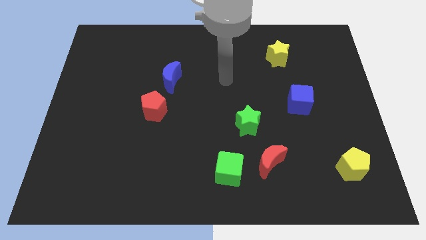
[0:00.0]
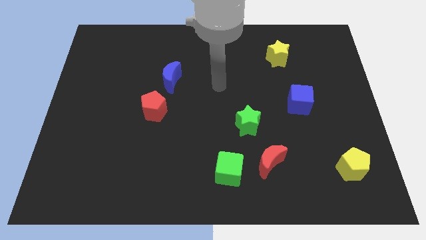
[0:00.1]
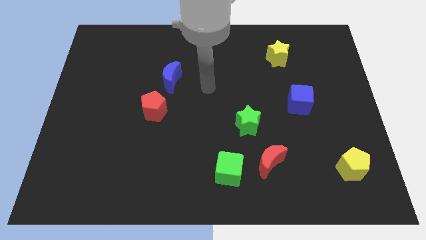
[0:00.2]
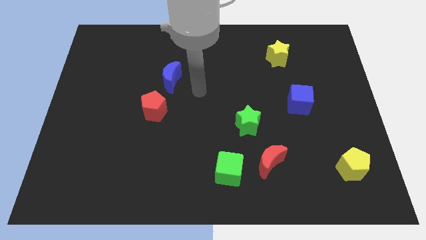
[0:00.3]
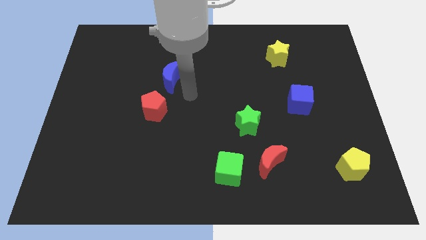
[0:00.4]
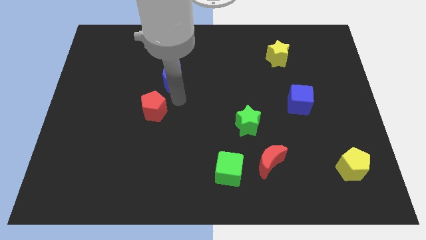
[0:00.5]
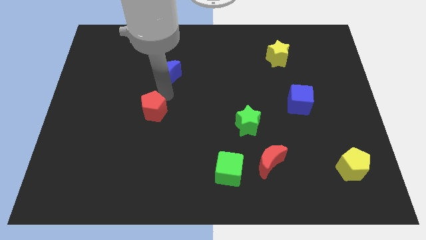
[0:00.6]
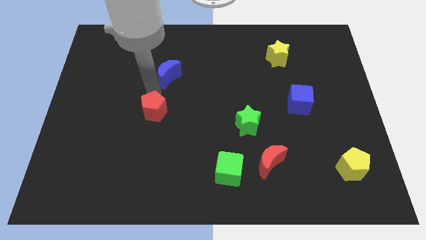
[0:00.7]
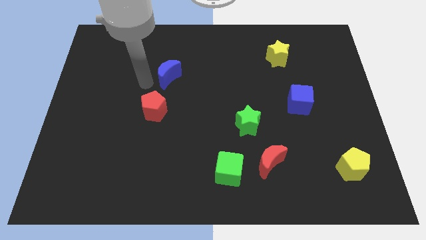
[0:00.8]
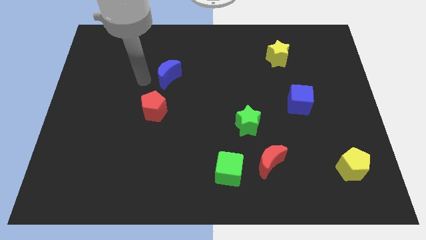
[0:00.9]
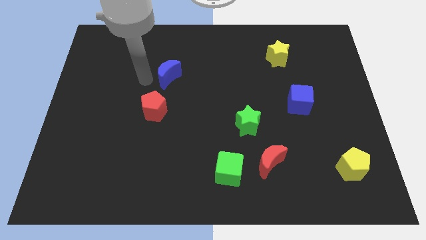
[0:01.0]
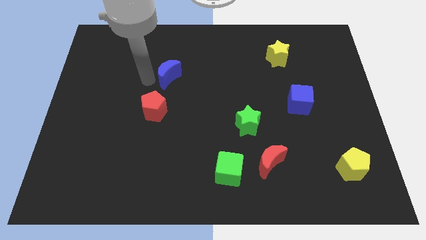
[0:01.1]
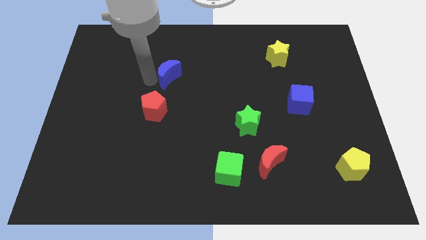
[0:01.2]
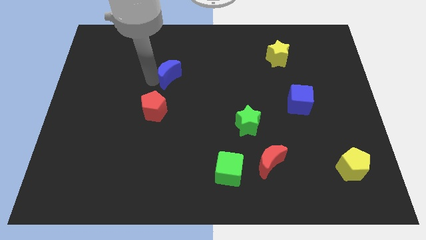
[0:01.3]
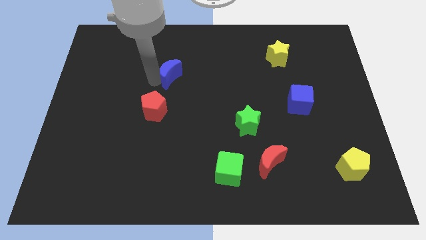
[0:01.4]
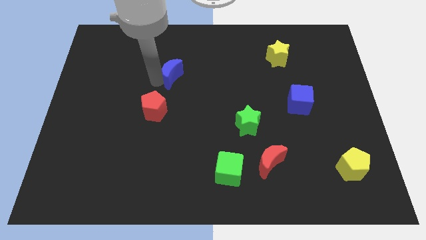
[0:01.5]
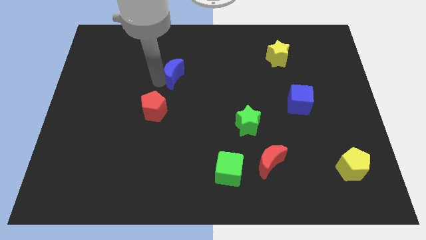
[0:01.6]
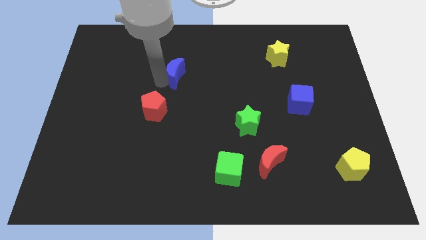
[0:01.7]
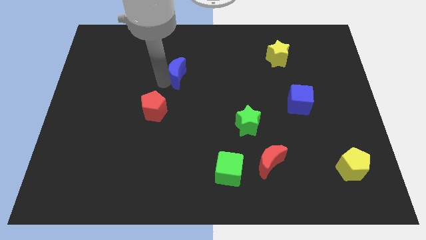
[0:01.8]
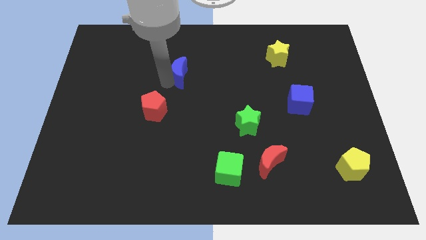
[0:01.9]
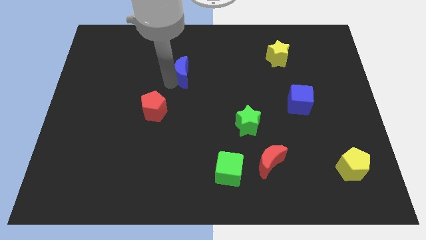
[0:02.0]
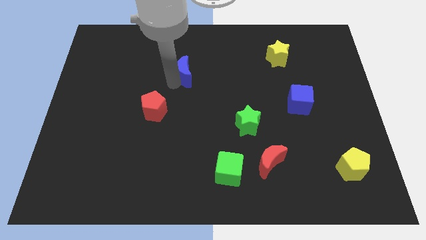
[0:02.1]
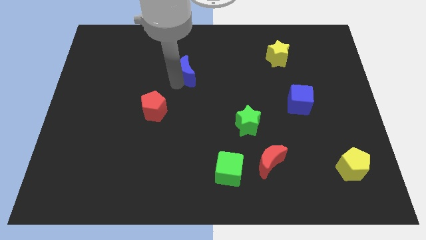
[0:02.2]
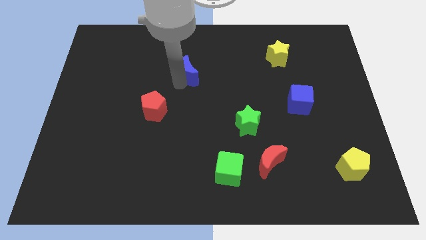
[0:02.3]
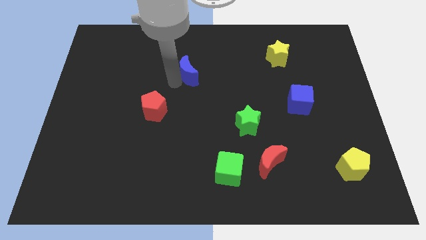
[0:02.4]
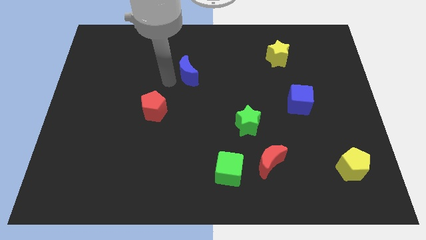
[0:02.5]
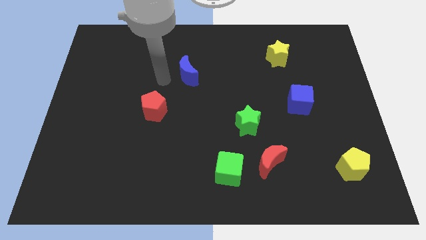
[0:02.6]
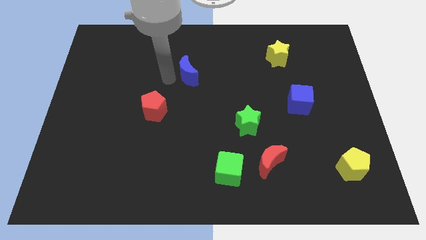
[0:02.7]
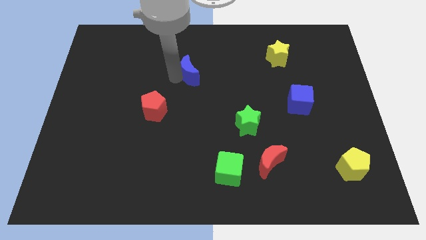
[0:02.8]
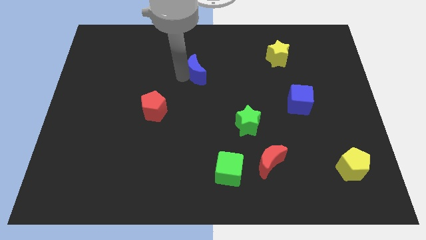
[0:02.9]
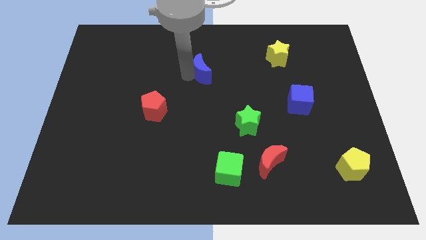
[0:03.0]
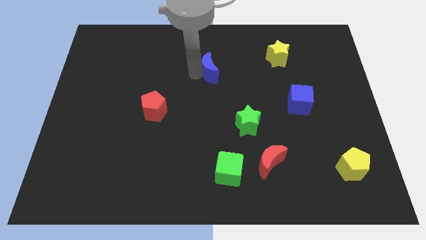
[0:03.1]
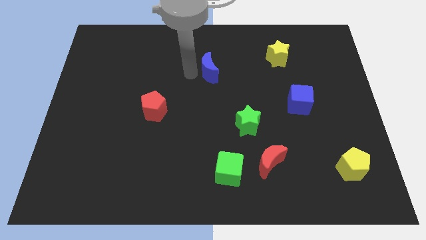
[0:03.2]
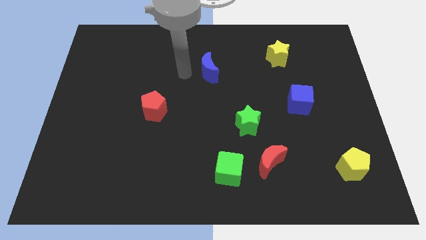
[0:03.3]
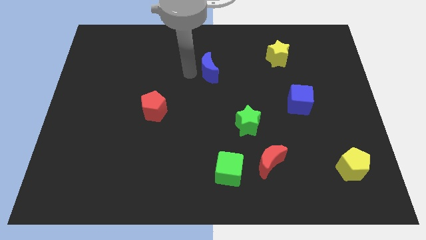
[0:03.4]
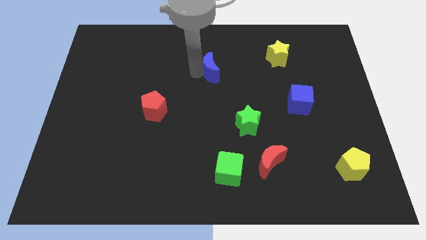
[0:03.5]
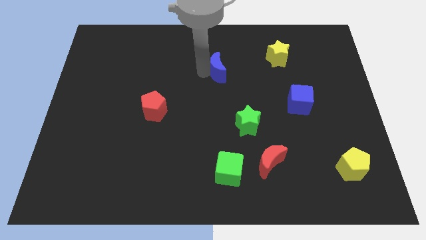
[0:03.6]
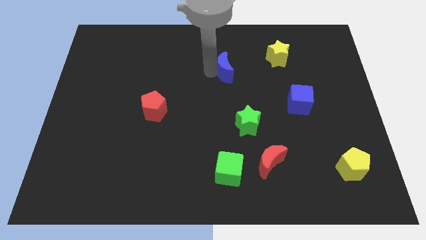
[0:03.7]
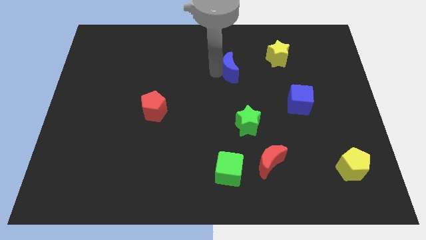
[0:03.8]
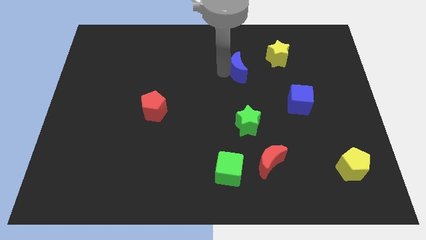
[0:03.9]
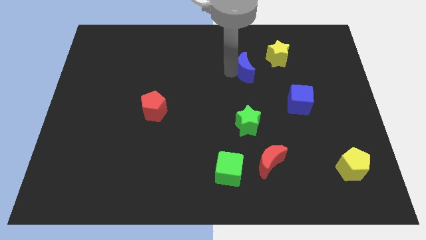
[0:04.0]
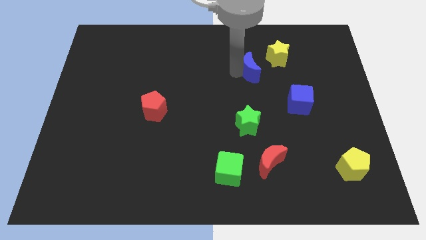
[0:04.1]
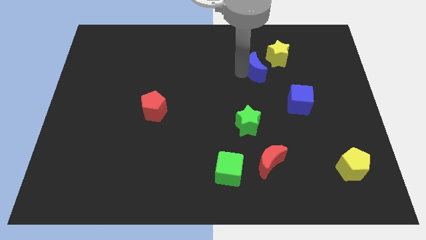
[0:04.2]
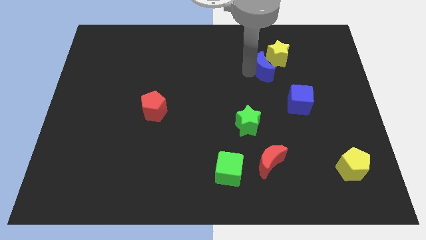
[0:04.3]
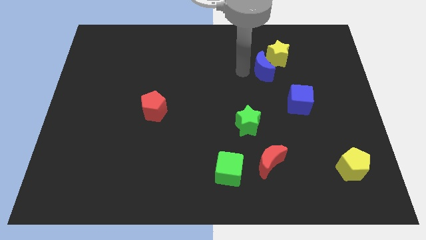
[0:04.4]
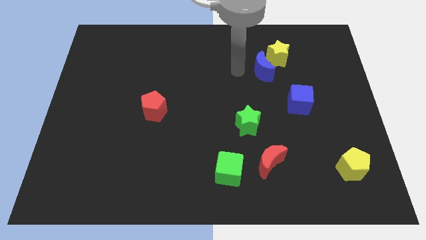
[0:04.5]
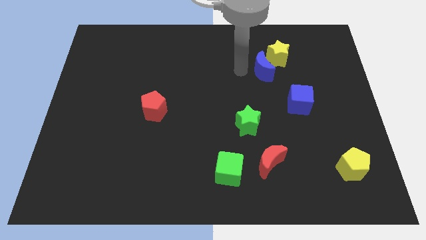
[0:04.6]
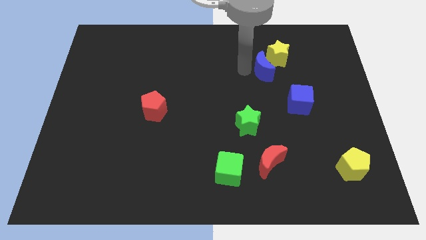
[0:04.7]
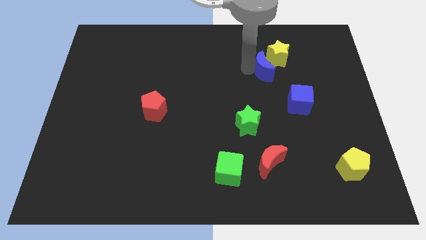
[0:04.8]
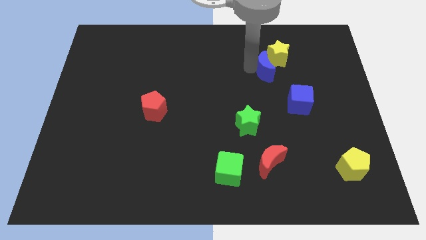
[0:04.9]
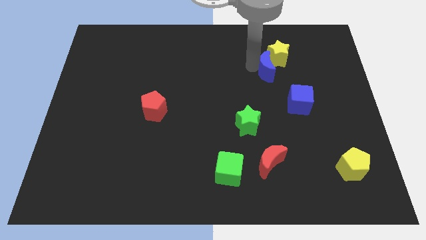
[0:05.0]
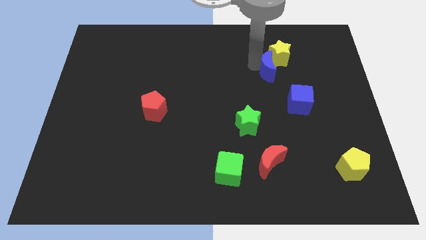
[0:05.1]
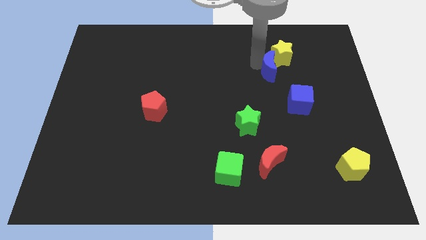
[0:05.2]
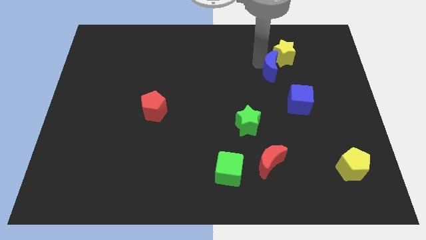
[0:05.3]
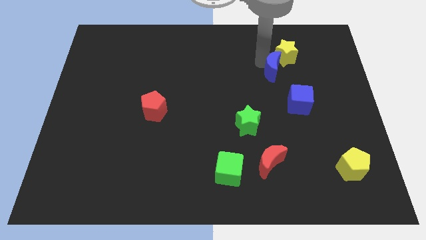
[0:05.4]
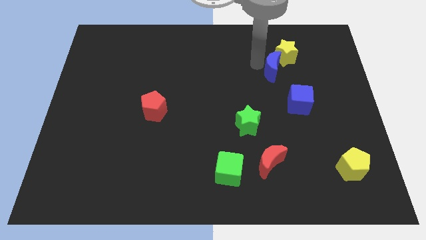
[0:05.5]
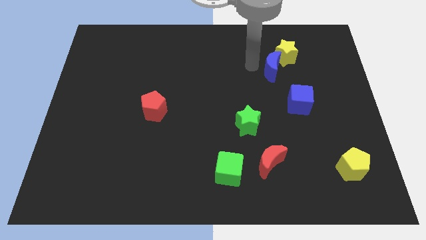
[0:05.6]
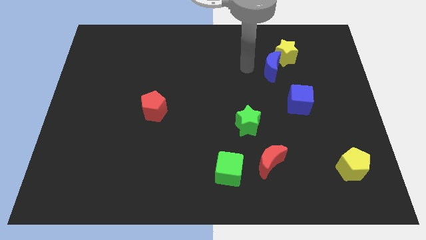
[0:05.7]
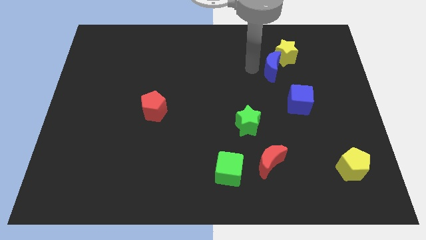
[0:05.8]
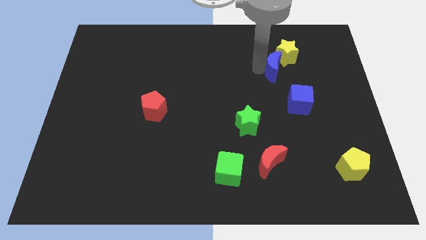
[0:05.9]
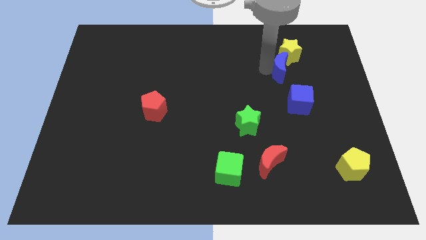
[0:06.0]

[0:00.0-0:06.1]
move the blue moon to the top of the blue cube

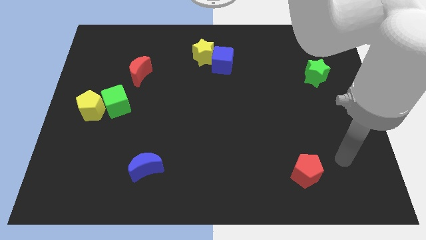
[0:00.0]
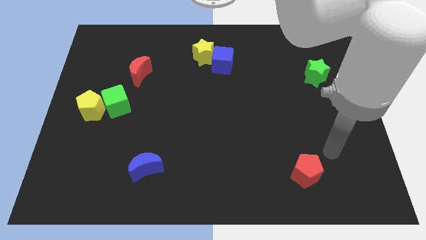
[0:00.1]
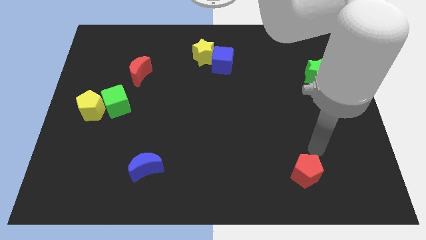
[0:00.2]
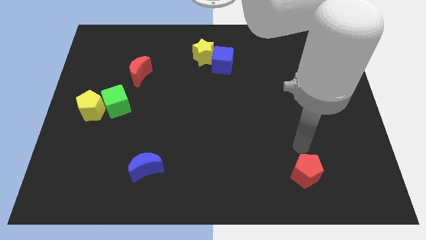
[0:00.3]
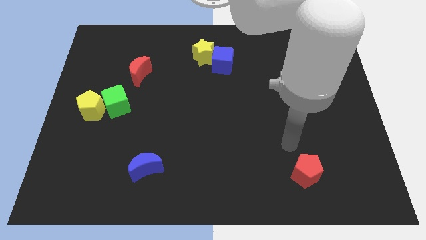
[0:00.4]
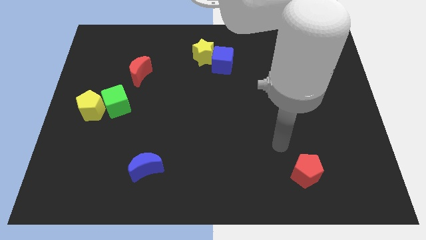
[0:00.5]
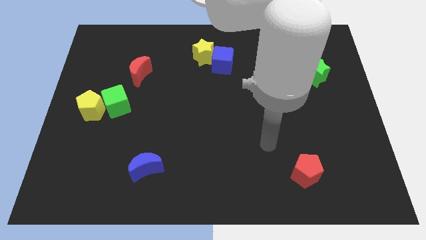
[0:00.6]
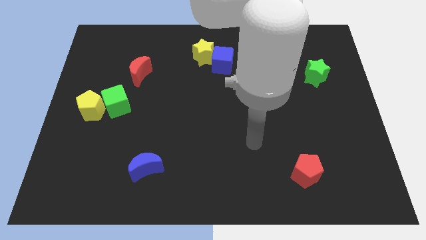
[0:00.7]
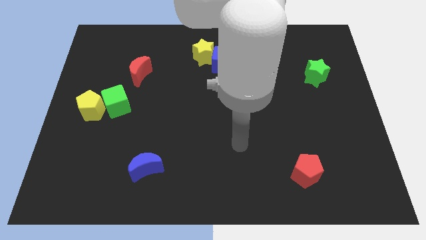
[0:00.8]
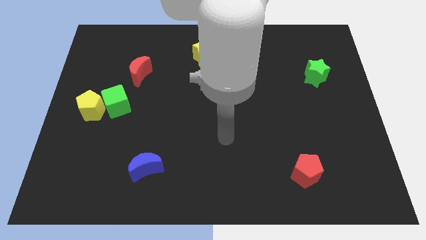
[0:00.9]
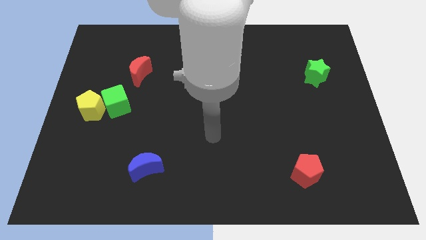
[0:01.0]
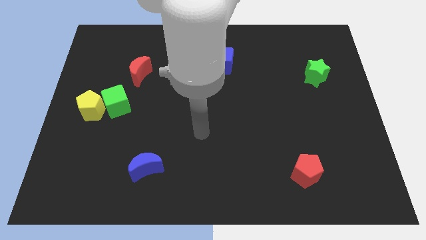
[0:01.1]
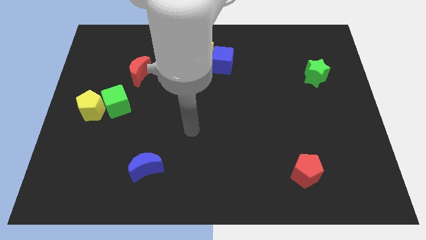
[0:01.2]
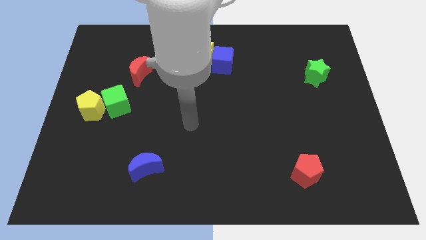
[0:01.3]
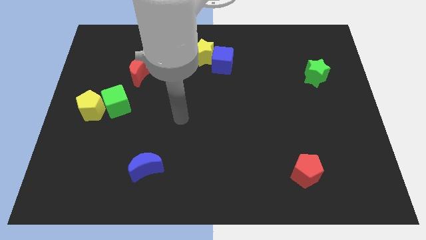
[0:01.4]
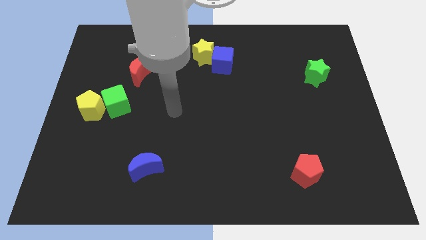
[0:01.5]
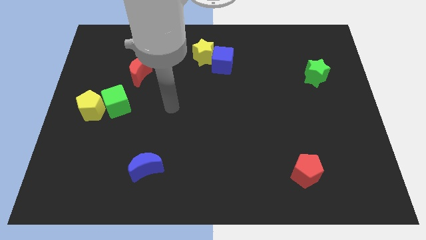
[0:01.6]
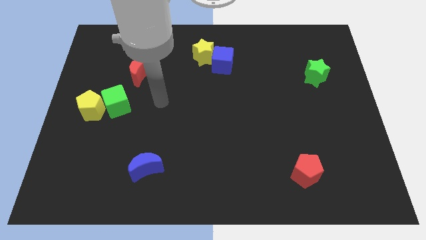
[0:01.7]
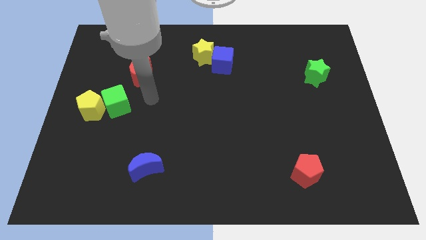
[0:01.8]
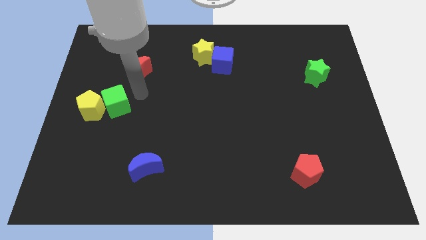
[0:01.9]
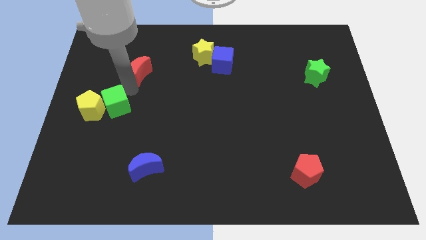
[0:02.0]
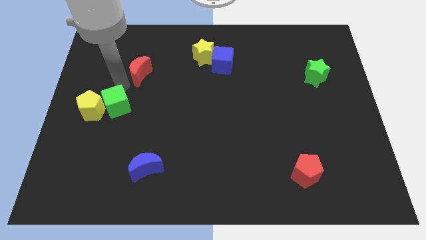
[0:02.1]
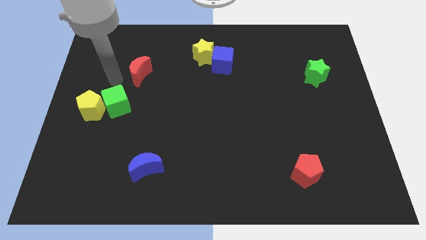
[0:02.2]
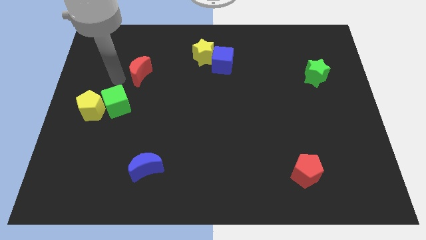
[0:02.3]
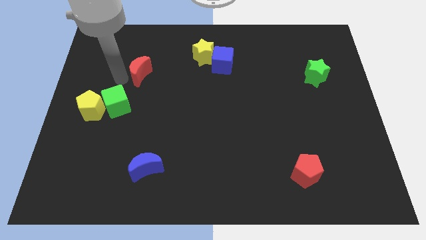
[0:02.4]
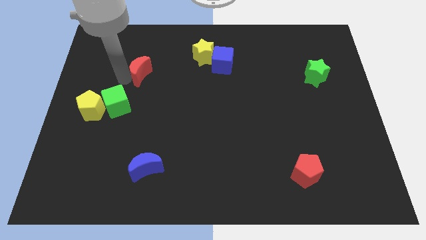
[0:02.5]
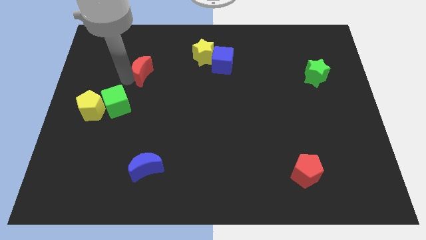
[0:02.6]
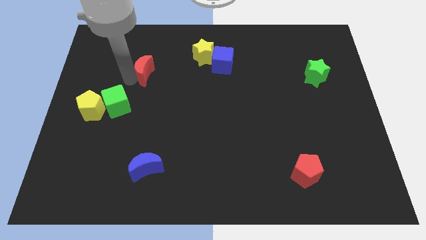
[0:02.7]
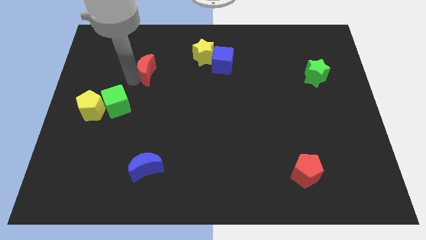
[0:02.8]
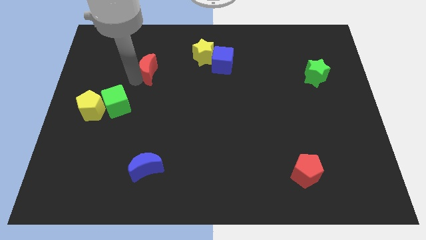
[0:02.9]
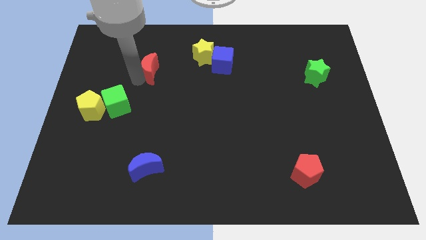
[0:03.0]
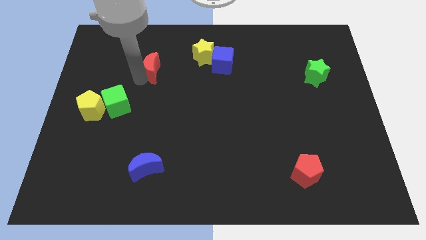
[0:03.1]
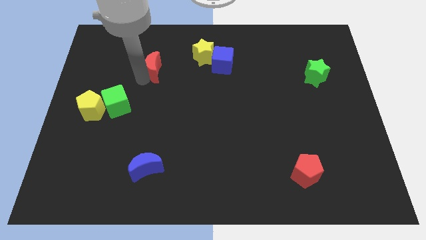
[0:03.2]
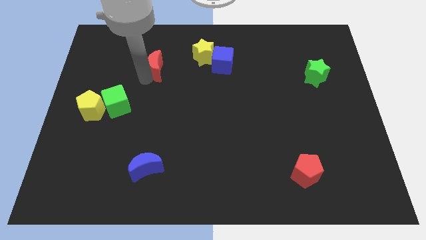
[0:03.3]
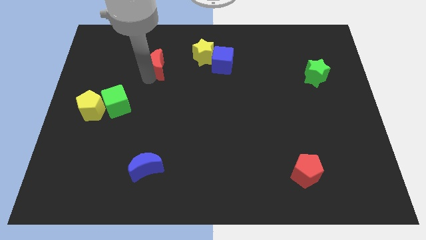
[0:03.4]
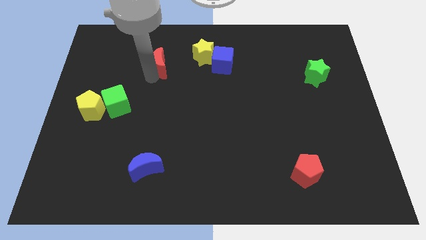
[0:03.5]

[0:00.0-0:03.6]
slide the red moon just left of the blue cube
